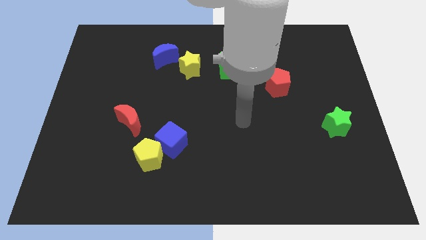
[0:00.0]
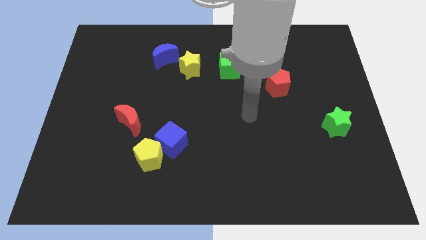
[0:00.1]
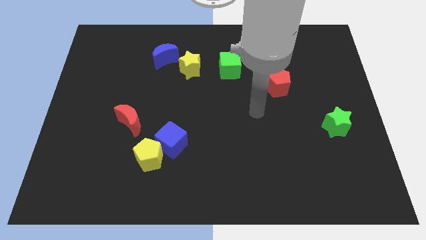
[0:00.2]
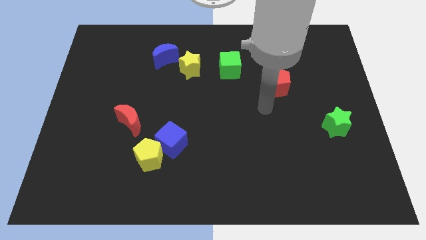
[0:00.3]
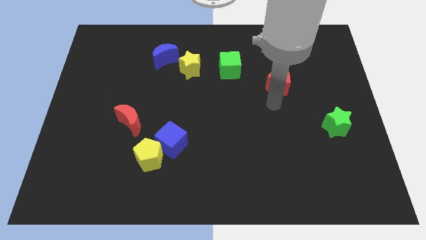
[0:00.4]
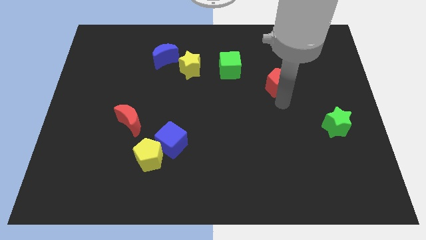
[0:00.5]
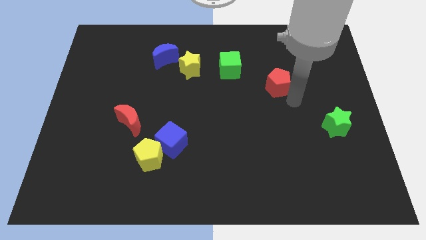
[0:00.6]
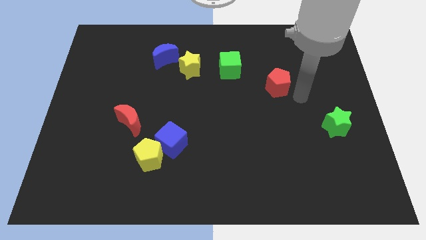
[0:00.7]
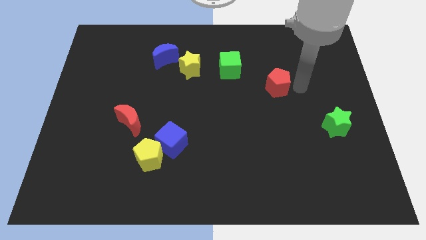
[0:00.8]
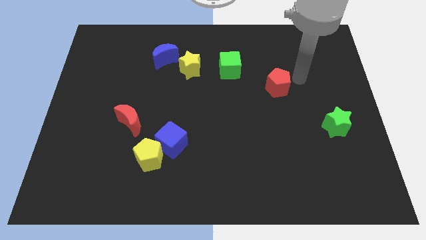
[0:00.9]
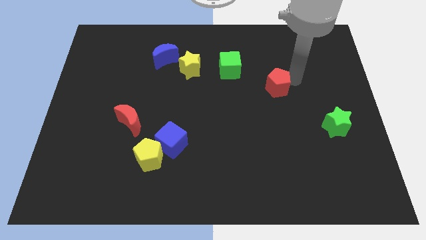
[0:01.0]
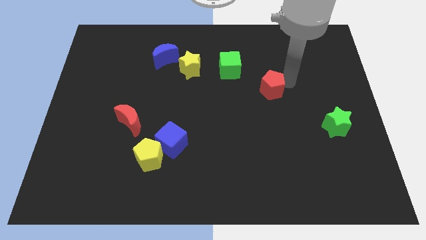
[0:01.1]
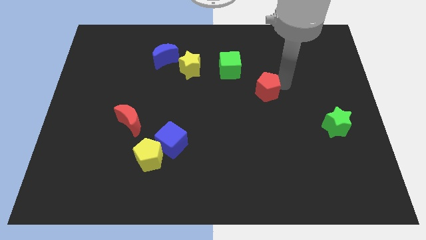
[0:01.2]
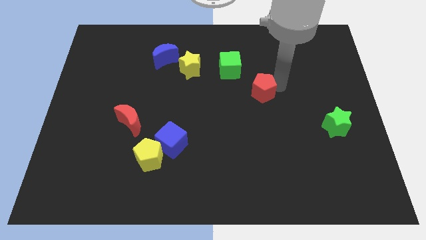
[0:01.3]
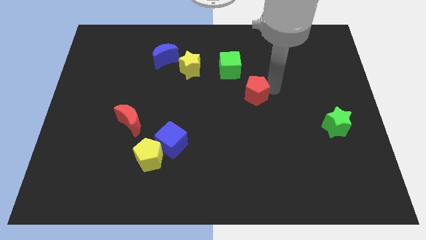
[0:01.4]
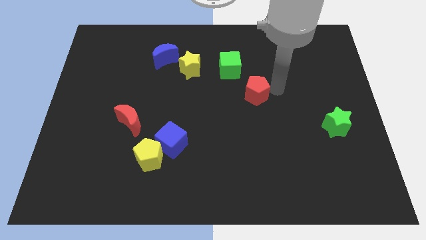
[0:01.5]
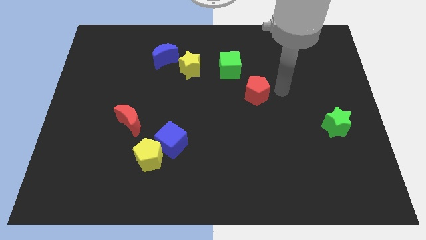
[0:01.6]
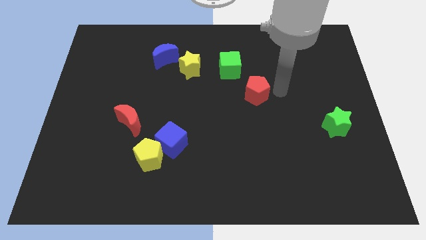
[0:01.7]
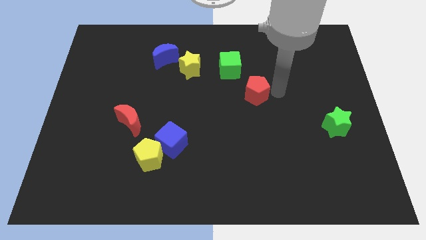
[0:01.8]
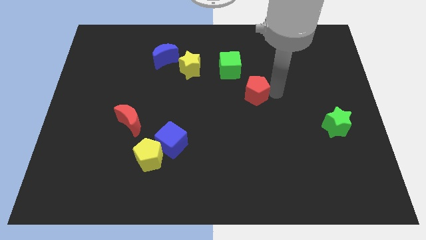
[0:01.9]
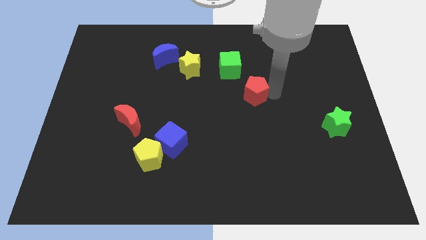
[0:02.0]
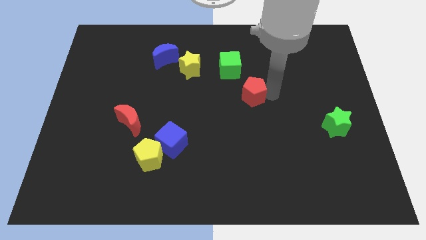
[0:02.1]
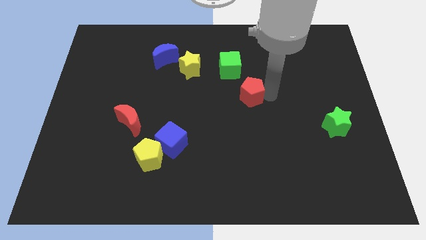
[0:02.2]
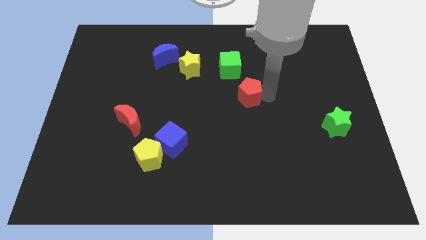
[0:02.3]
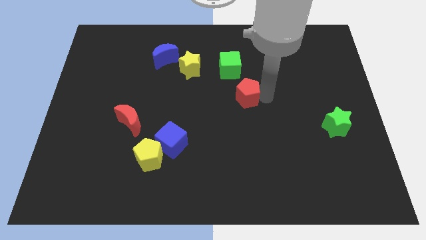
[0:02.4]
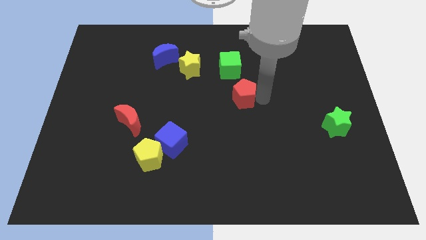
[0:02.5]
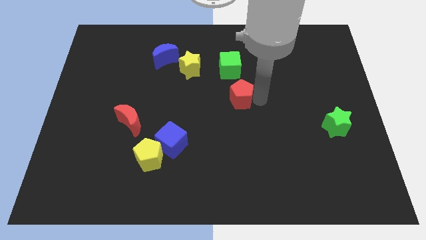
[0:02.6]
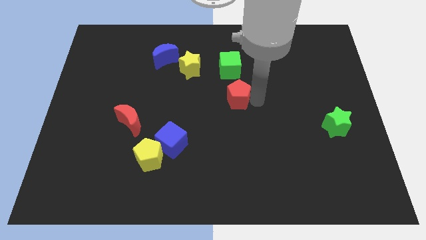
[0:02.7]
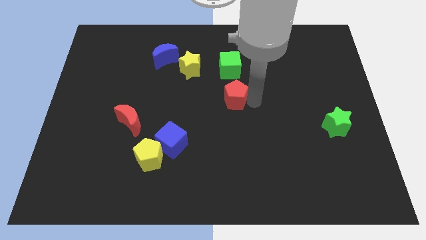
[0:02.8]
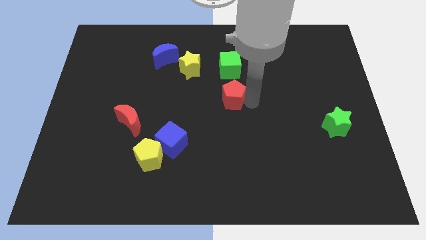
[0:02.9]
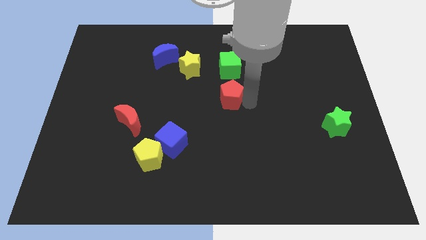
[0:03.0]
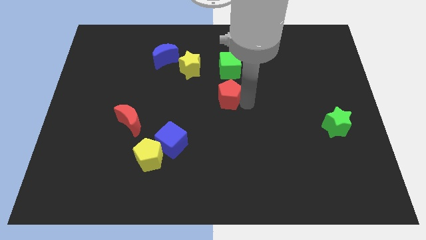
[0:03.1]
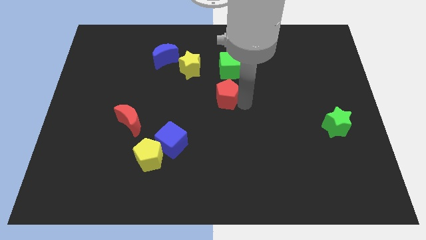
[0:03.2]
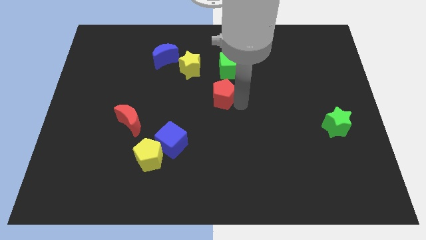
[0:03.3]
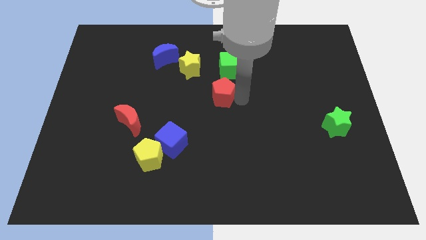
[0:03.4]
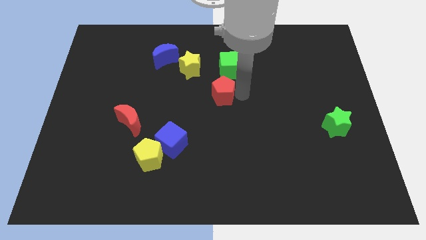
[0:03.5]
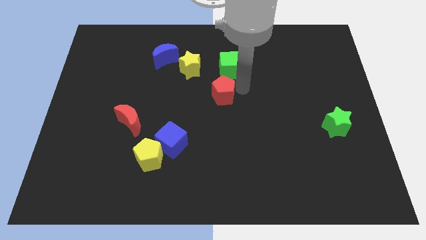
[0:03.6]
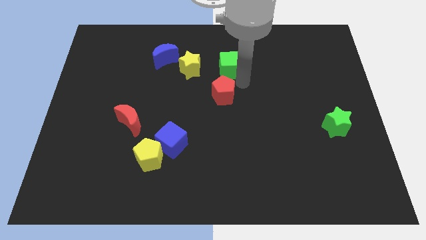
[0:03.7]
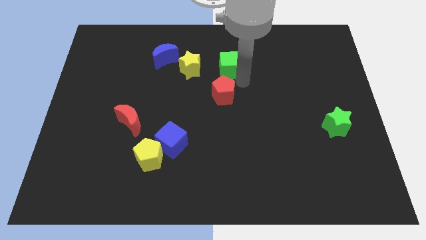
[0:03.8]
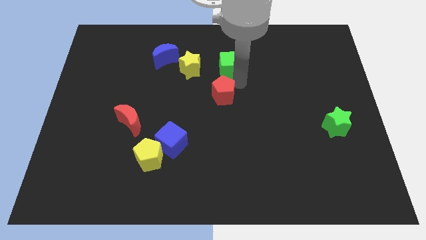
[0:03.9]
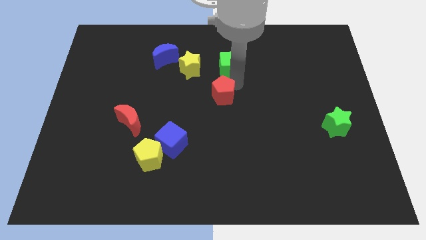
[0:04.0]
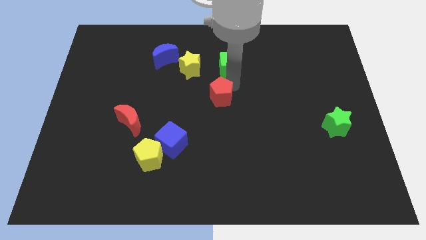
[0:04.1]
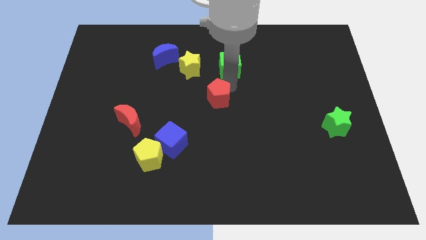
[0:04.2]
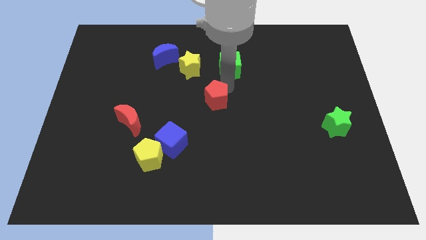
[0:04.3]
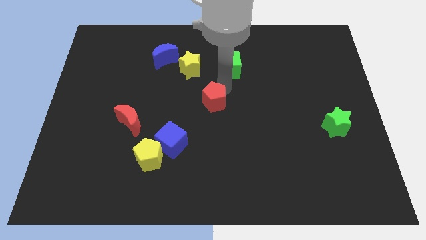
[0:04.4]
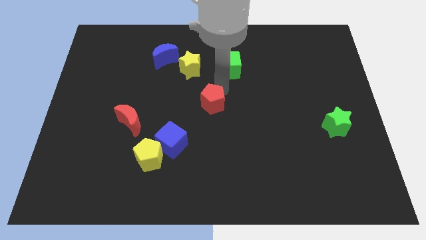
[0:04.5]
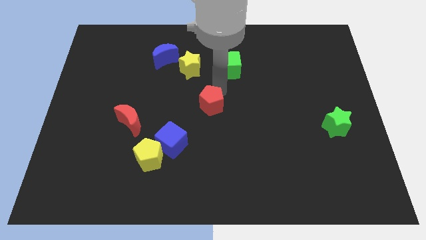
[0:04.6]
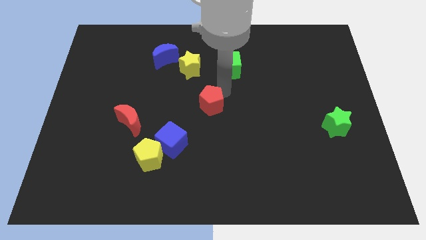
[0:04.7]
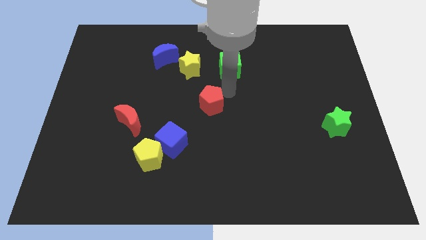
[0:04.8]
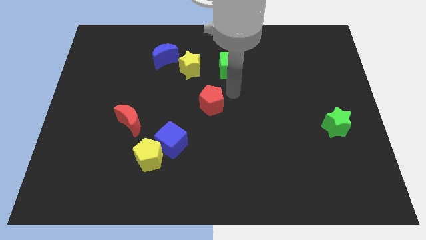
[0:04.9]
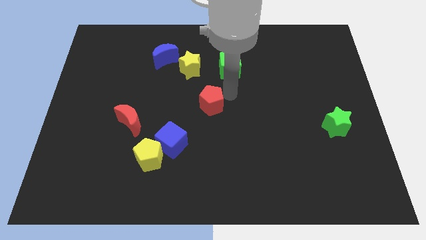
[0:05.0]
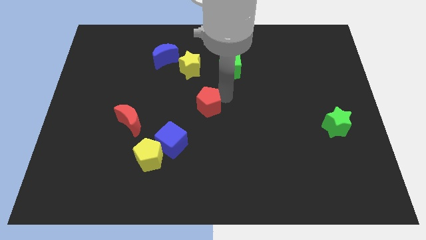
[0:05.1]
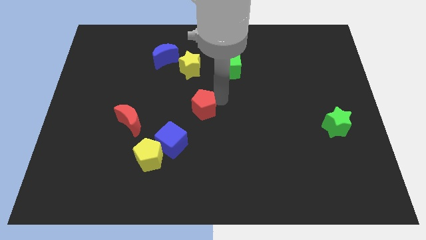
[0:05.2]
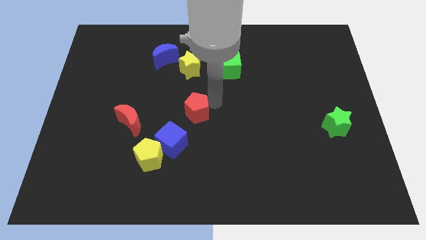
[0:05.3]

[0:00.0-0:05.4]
put the red pentagon to the right side of the red moon

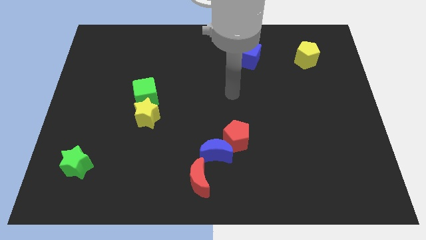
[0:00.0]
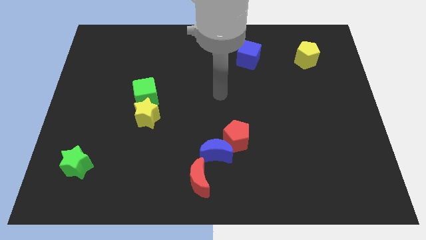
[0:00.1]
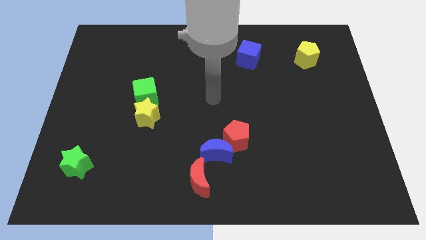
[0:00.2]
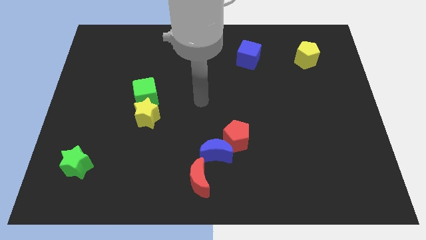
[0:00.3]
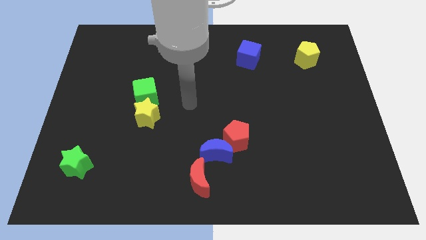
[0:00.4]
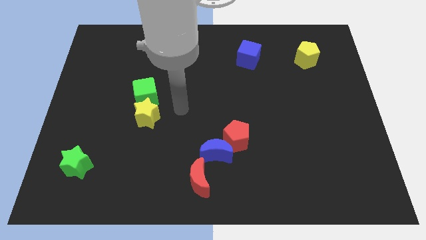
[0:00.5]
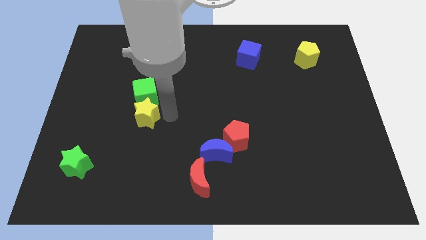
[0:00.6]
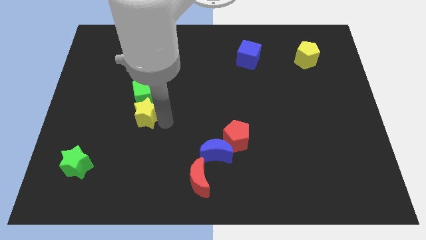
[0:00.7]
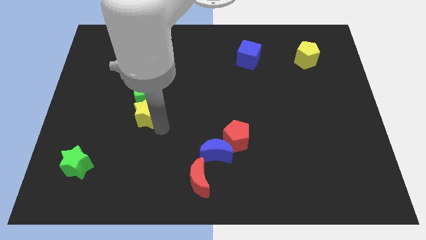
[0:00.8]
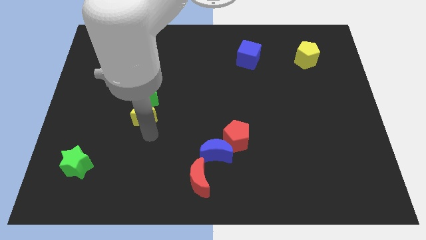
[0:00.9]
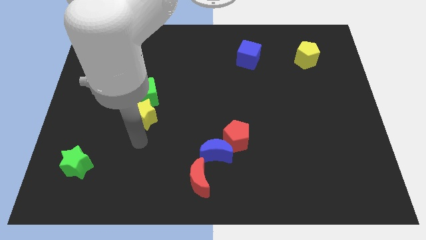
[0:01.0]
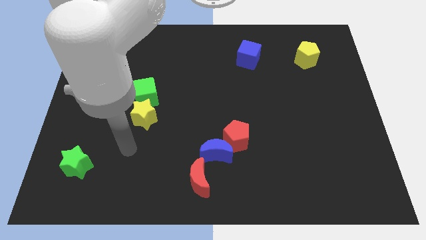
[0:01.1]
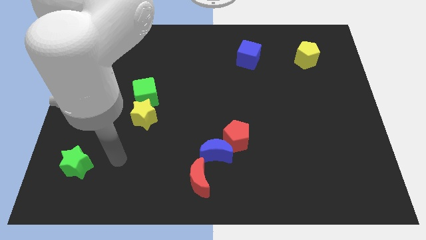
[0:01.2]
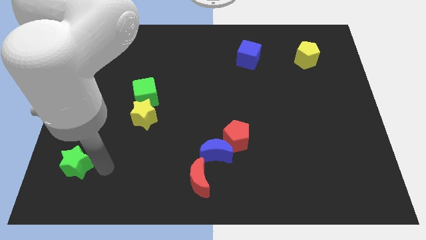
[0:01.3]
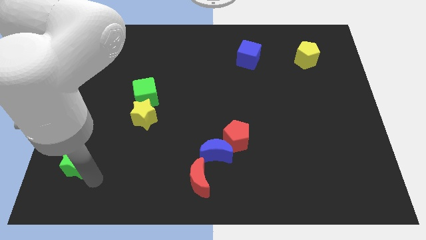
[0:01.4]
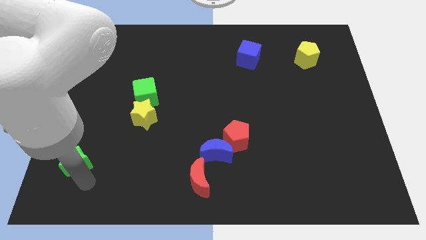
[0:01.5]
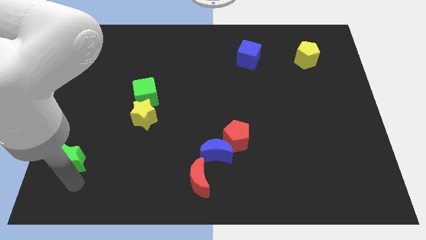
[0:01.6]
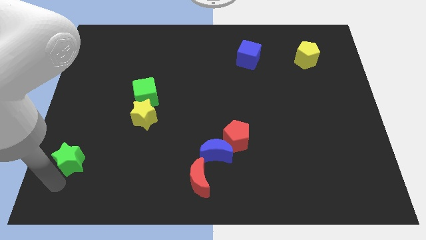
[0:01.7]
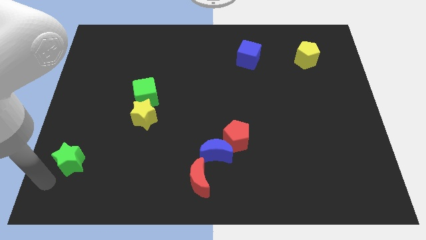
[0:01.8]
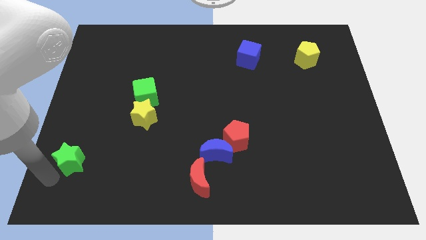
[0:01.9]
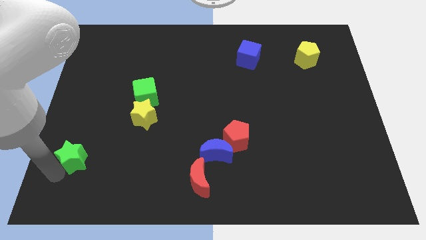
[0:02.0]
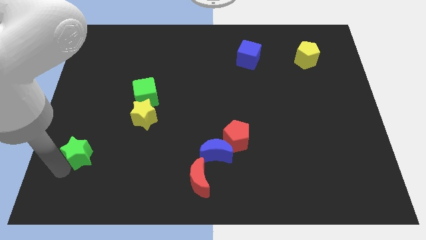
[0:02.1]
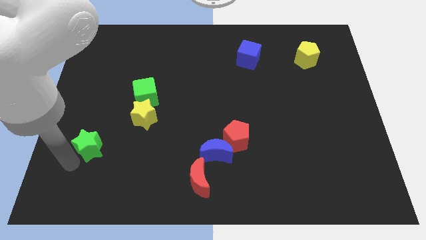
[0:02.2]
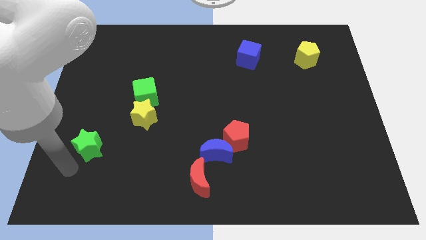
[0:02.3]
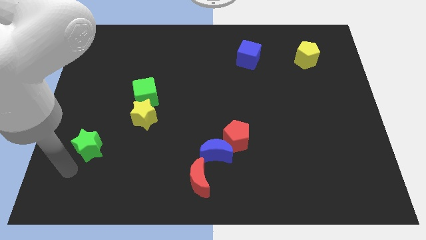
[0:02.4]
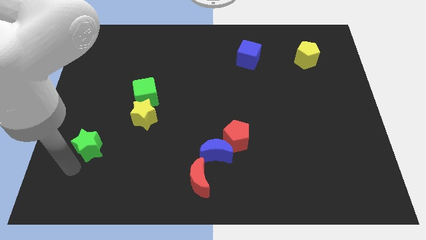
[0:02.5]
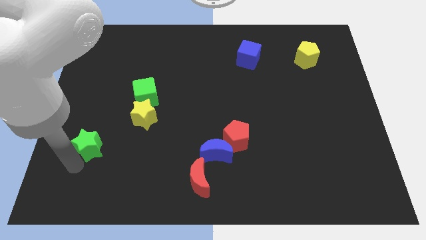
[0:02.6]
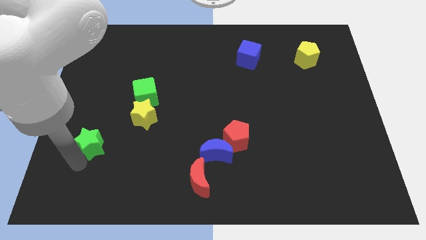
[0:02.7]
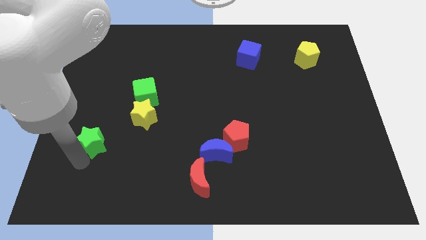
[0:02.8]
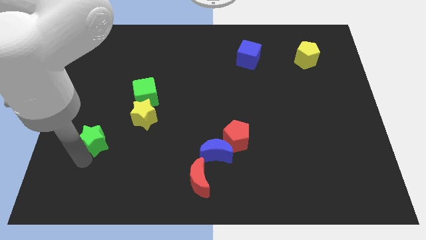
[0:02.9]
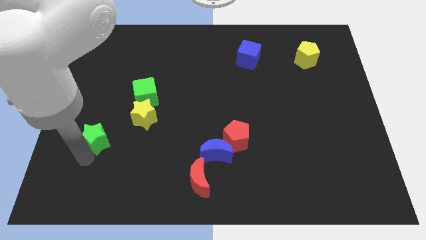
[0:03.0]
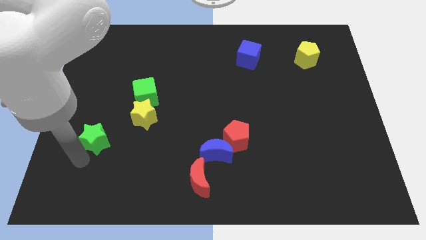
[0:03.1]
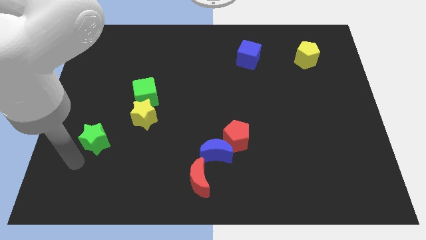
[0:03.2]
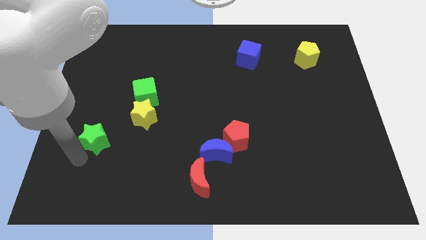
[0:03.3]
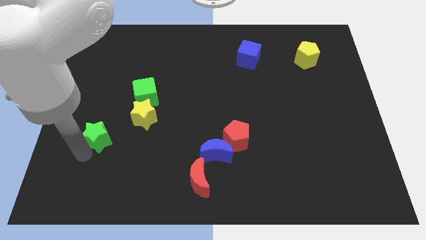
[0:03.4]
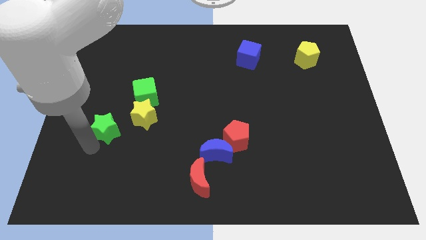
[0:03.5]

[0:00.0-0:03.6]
move the green star diagonally down and to the left of the green cube
